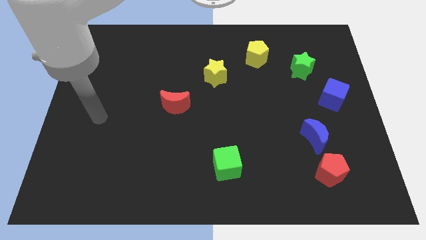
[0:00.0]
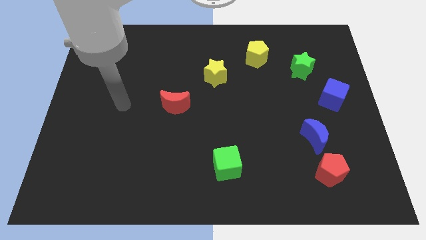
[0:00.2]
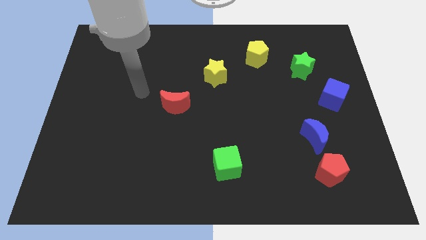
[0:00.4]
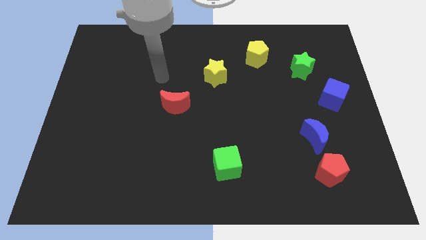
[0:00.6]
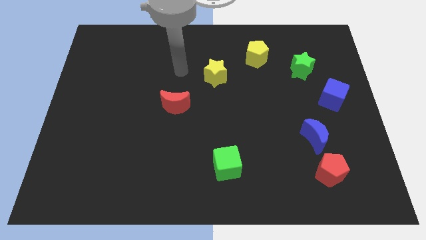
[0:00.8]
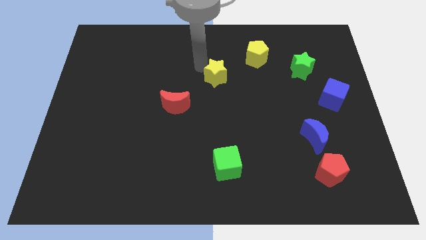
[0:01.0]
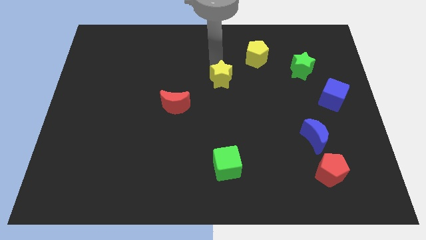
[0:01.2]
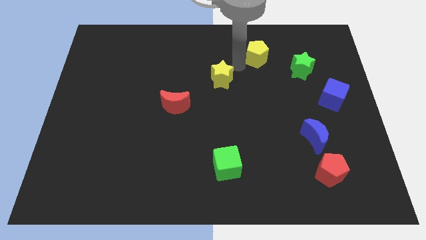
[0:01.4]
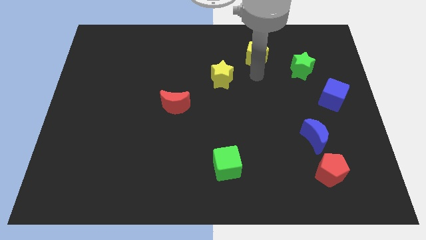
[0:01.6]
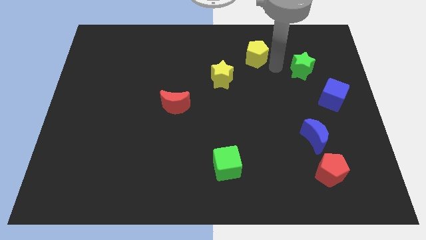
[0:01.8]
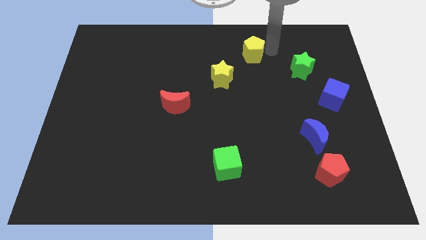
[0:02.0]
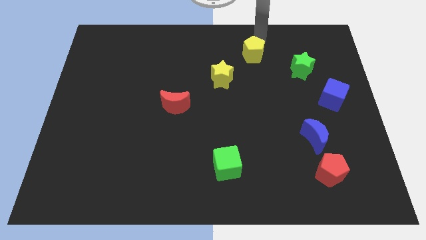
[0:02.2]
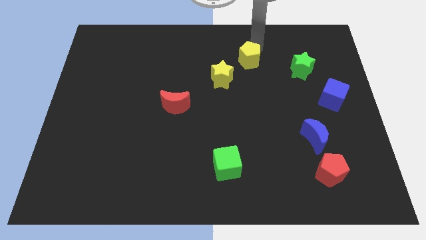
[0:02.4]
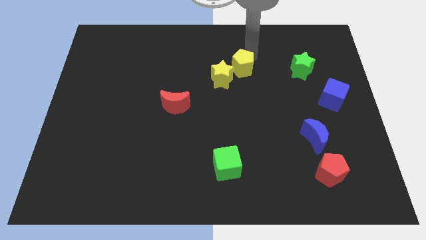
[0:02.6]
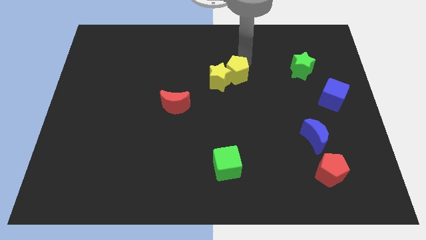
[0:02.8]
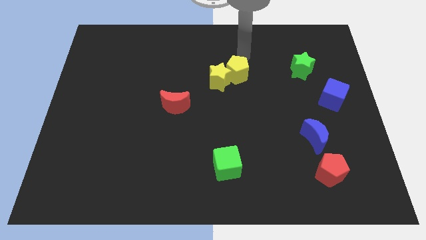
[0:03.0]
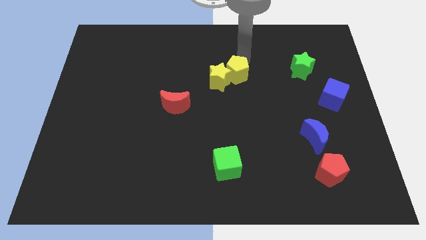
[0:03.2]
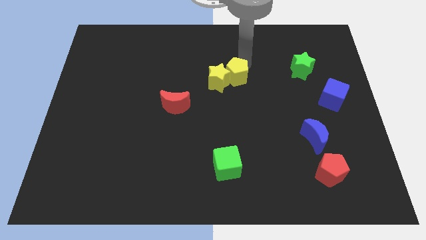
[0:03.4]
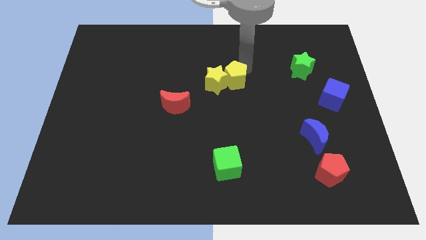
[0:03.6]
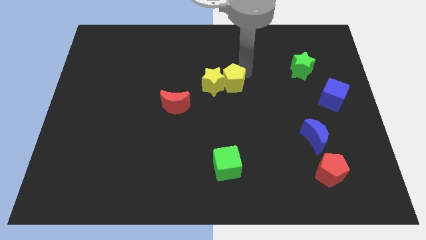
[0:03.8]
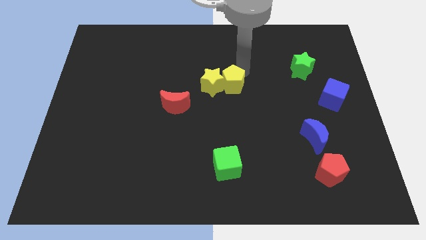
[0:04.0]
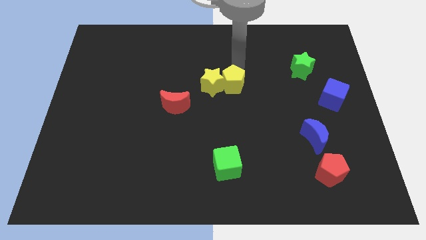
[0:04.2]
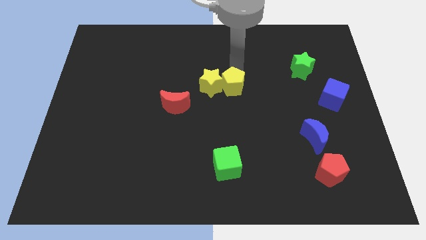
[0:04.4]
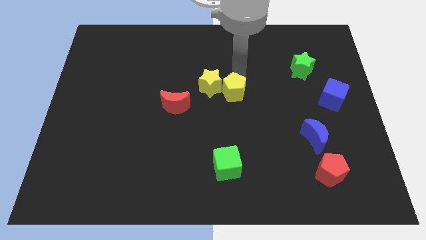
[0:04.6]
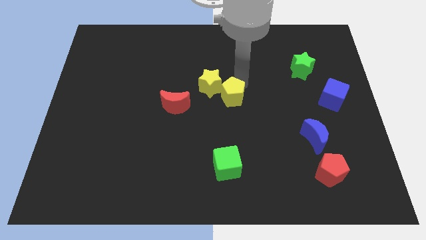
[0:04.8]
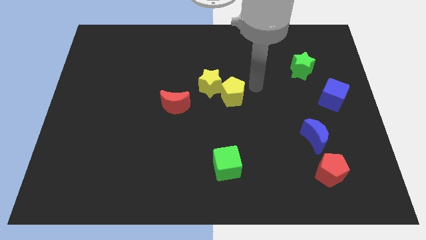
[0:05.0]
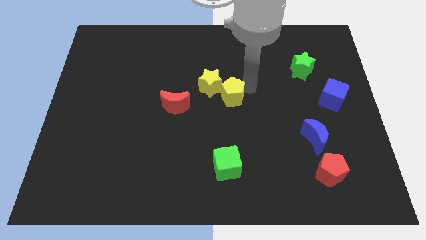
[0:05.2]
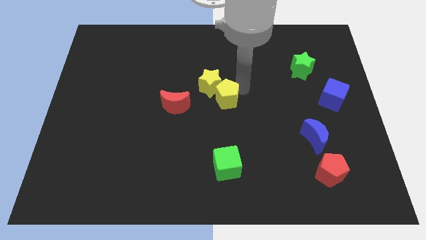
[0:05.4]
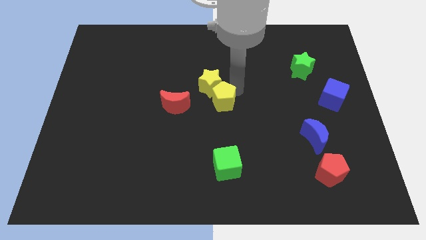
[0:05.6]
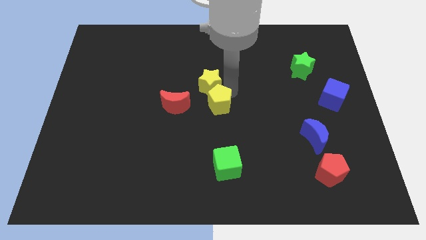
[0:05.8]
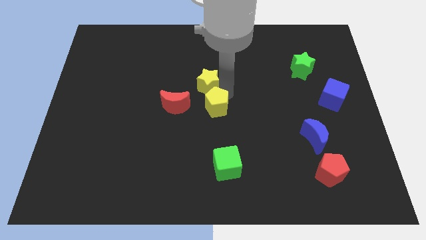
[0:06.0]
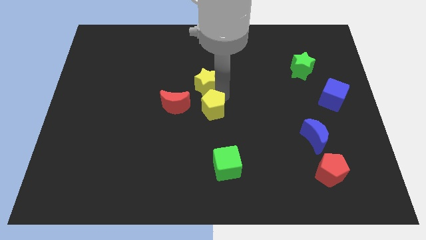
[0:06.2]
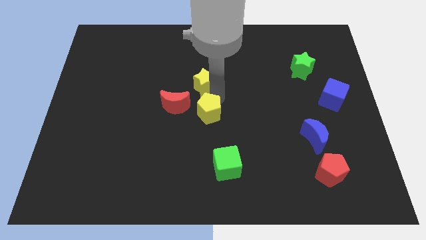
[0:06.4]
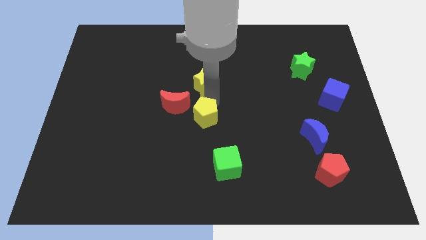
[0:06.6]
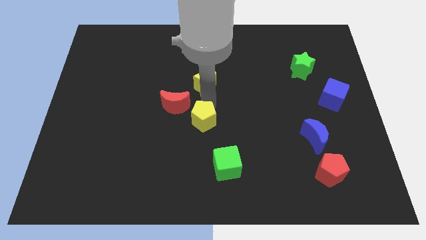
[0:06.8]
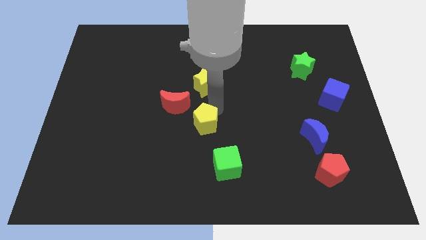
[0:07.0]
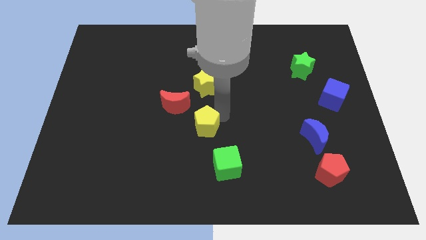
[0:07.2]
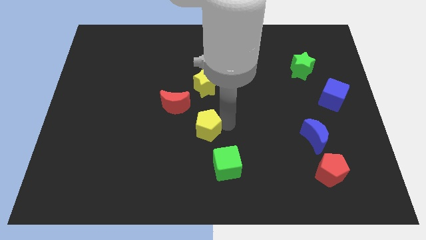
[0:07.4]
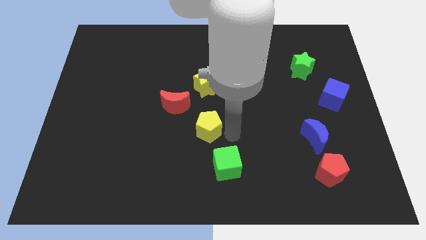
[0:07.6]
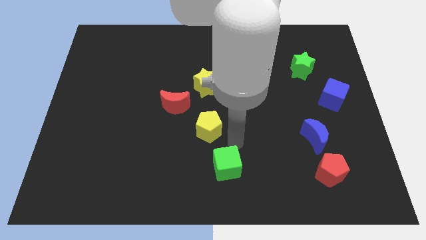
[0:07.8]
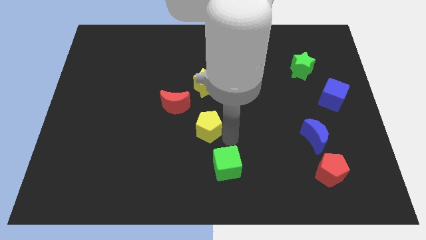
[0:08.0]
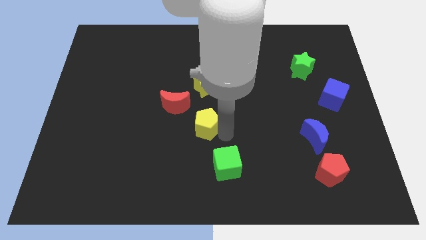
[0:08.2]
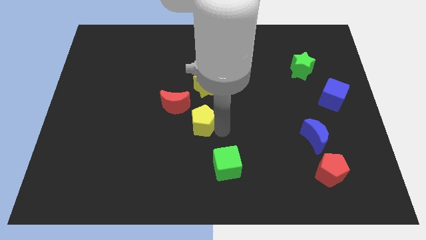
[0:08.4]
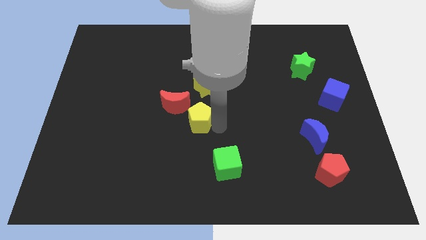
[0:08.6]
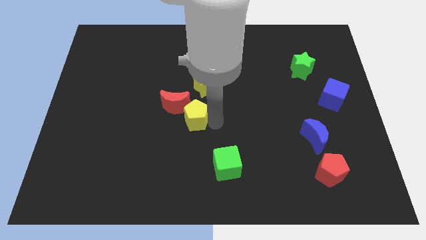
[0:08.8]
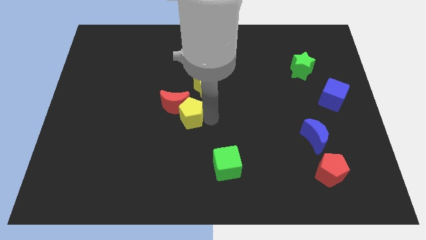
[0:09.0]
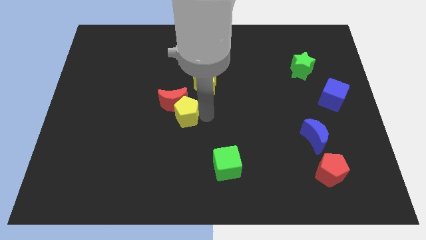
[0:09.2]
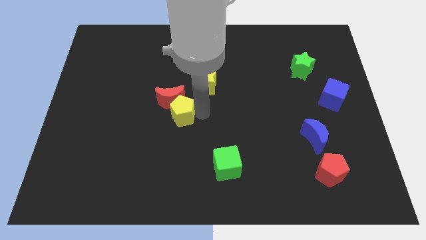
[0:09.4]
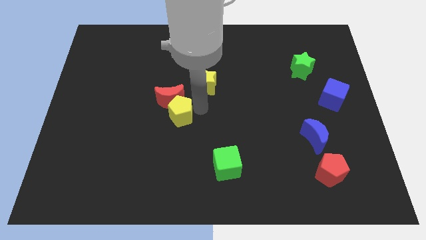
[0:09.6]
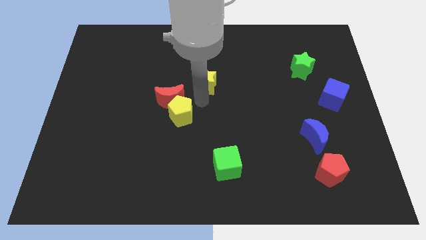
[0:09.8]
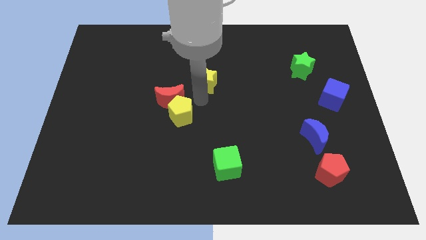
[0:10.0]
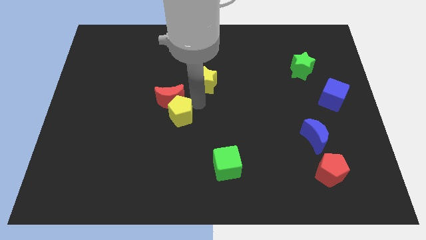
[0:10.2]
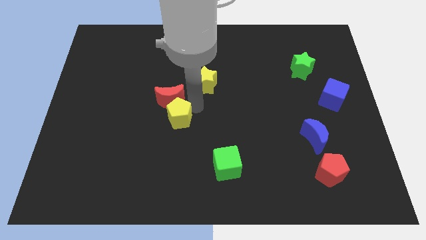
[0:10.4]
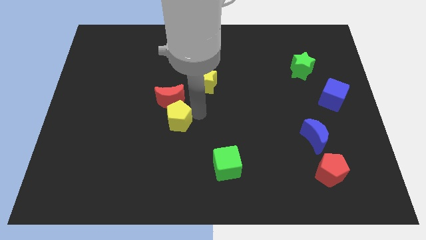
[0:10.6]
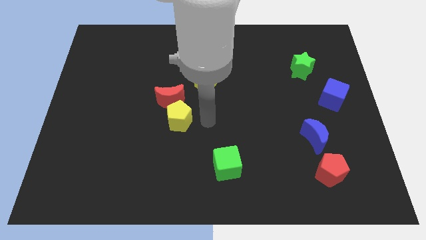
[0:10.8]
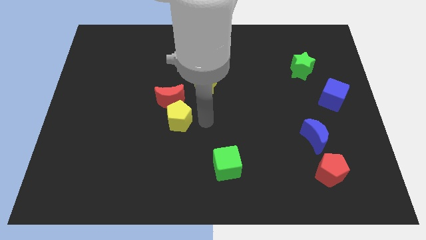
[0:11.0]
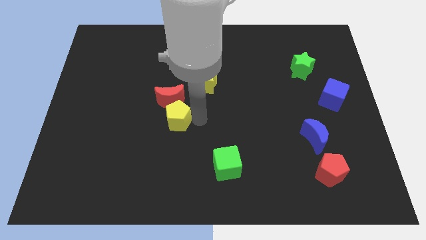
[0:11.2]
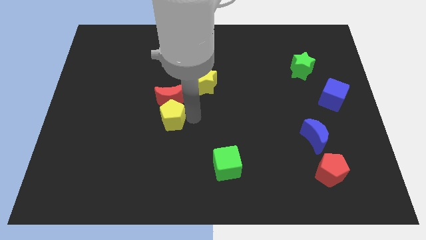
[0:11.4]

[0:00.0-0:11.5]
slide the yellow pentagon to the bottom left of the red moon

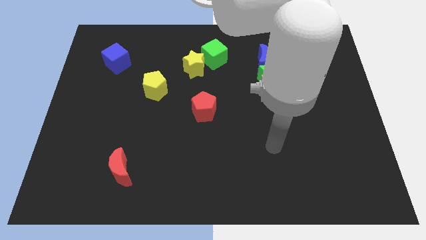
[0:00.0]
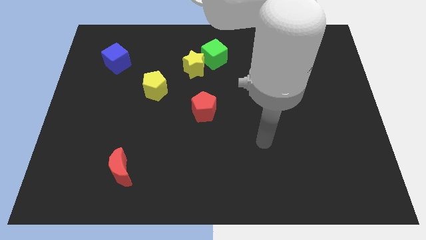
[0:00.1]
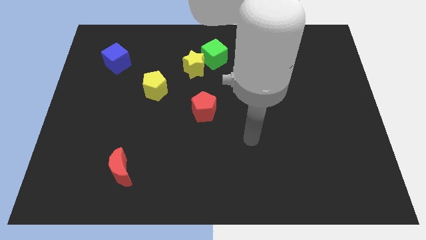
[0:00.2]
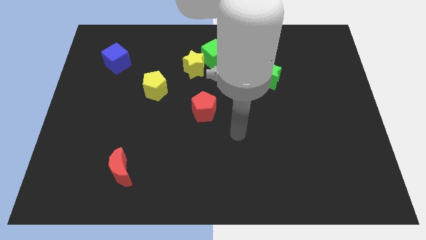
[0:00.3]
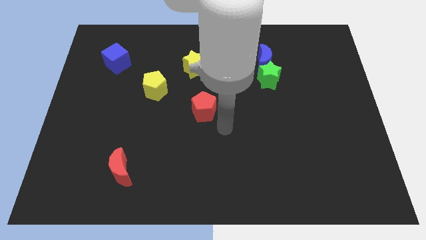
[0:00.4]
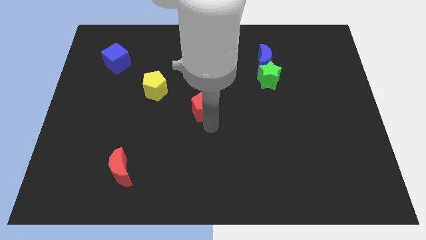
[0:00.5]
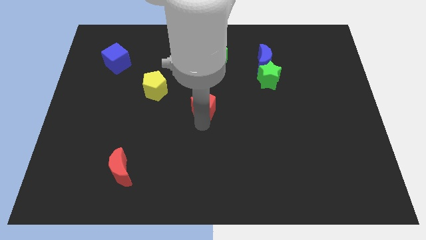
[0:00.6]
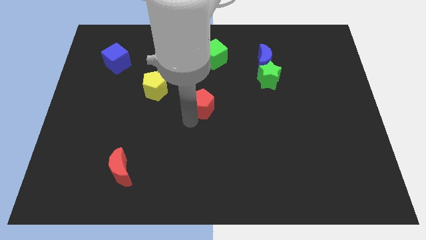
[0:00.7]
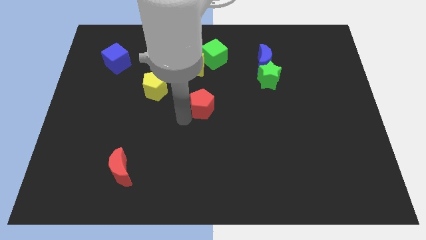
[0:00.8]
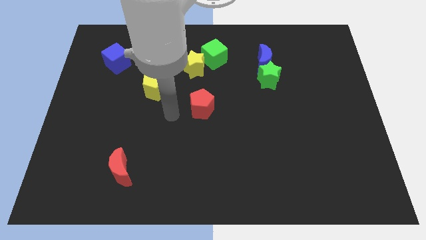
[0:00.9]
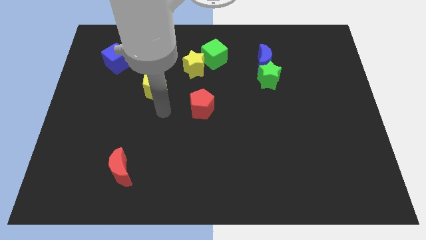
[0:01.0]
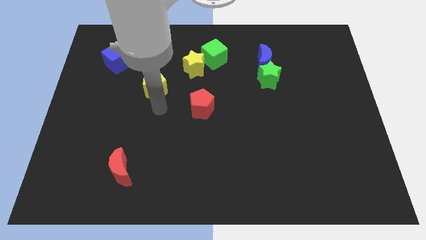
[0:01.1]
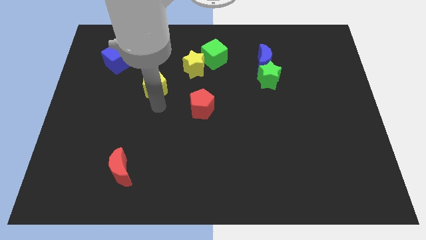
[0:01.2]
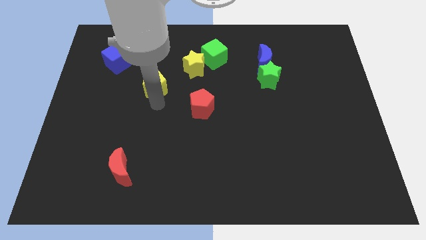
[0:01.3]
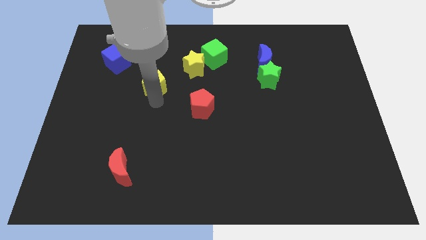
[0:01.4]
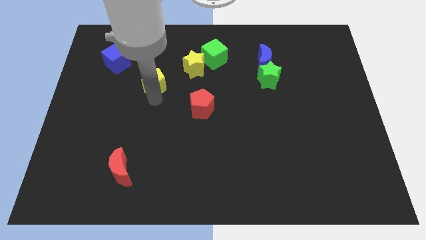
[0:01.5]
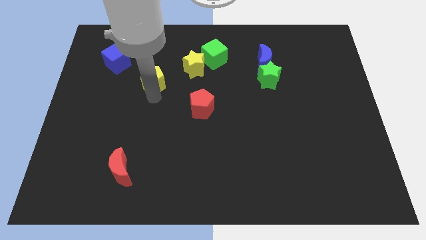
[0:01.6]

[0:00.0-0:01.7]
slide the yellow pentagon to the left of the yellow star
